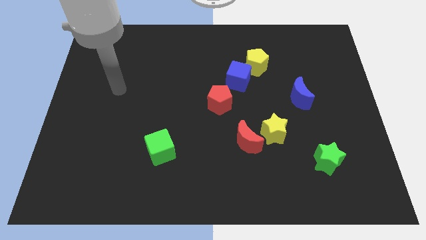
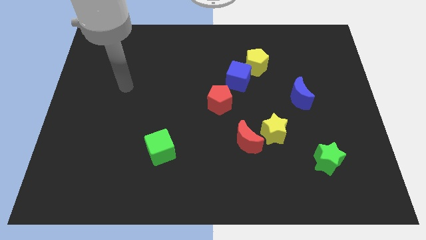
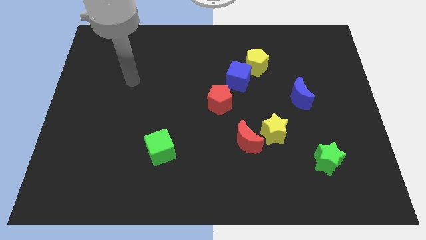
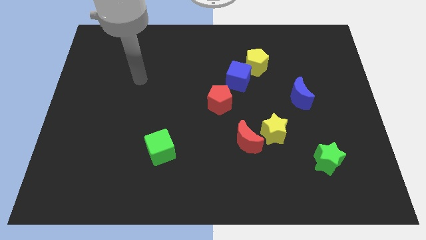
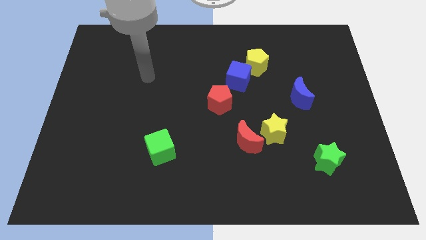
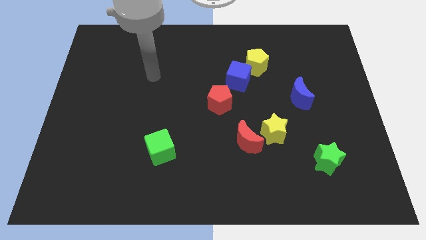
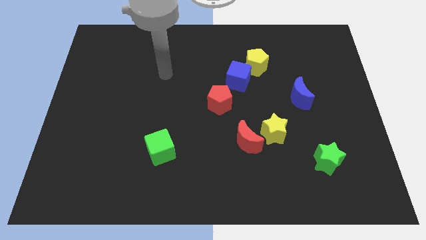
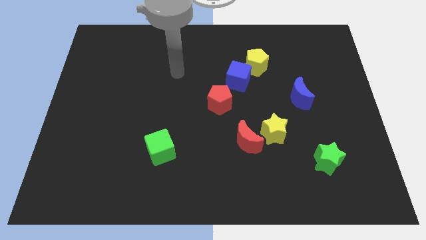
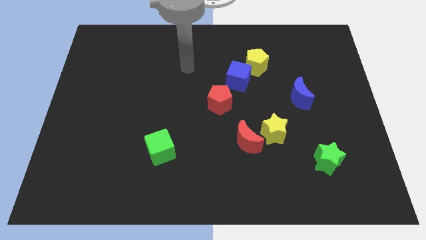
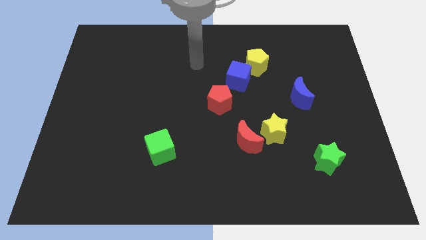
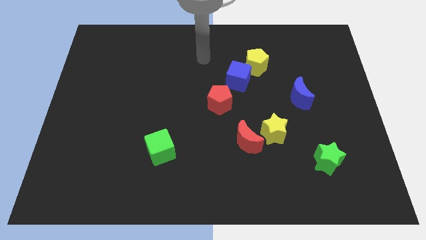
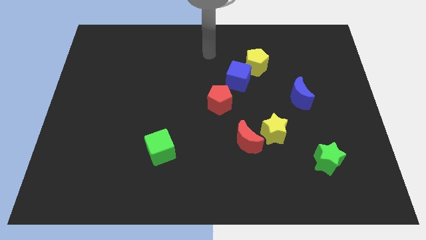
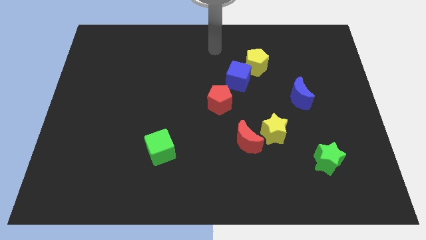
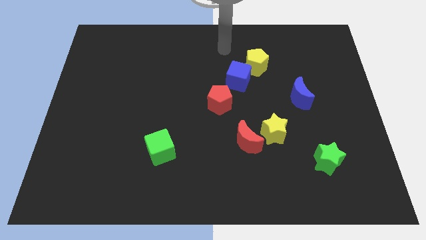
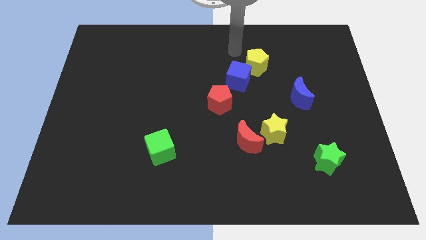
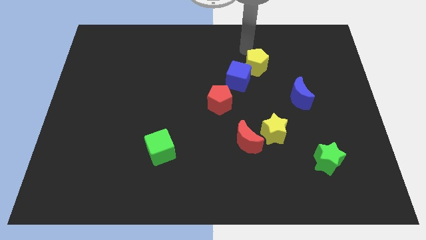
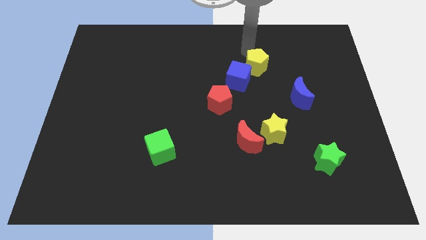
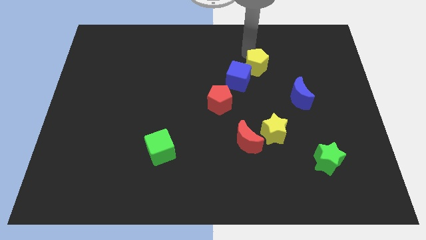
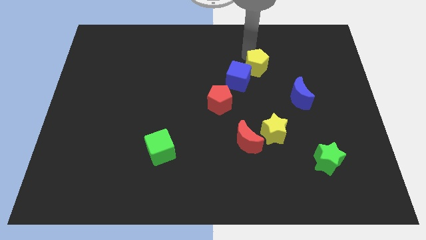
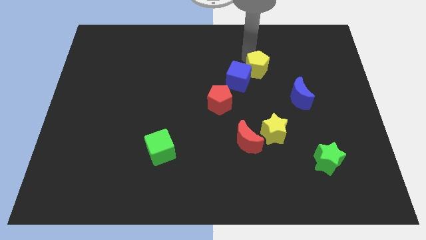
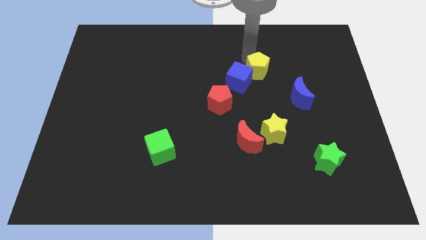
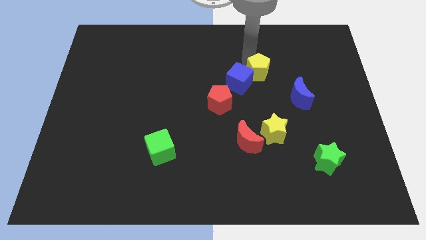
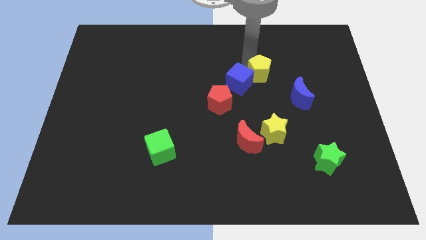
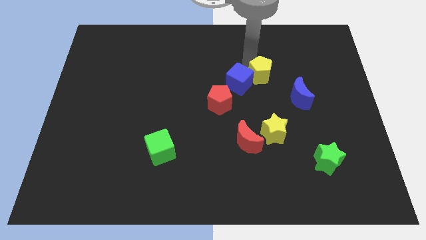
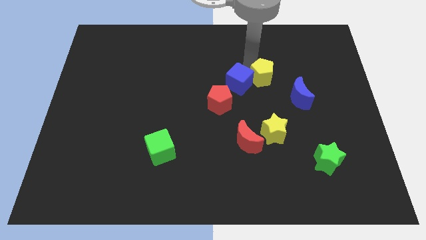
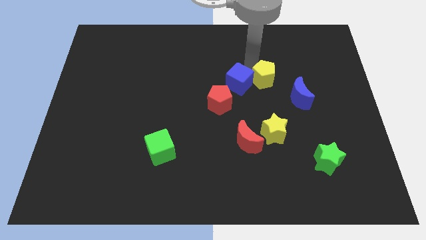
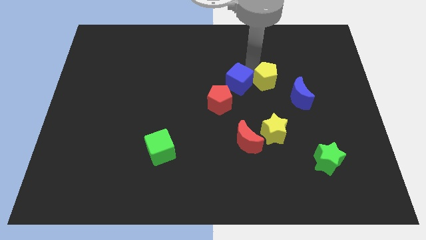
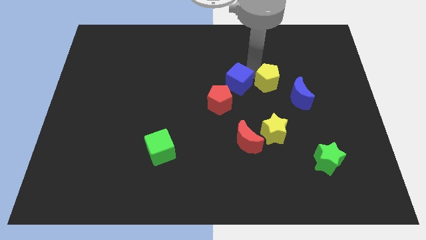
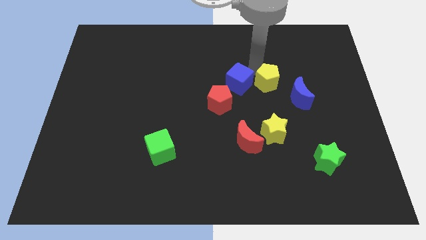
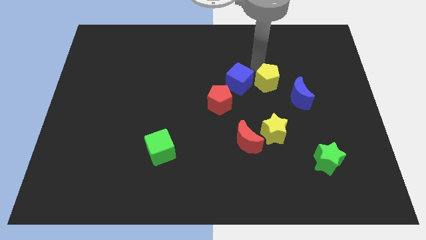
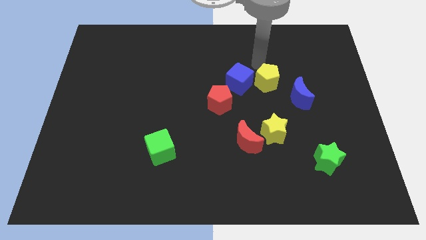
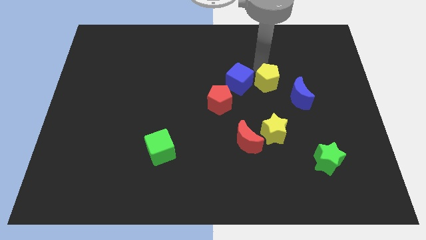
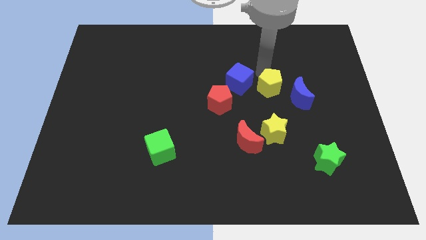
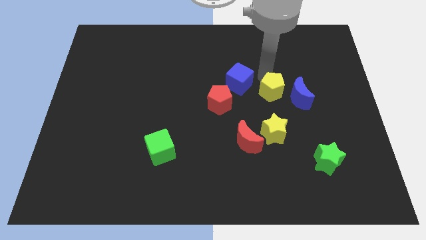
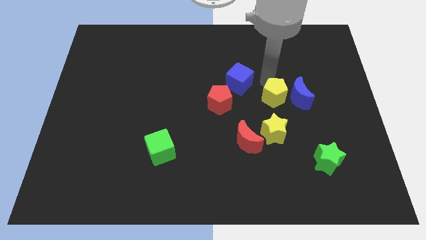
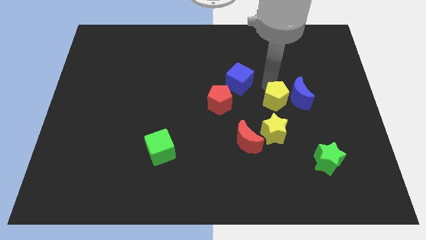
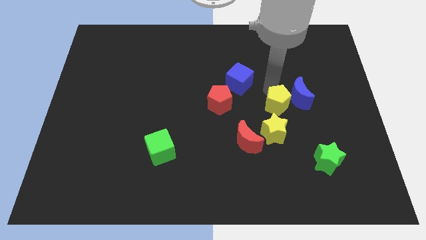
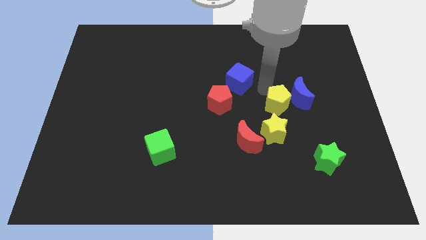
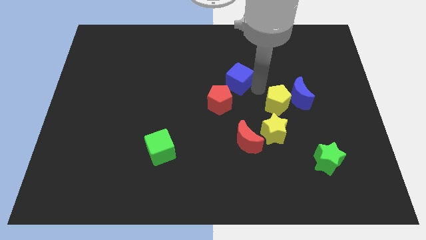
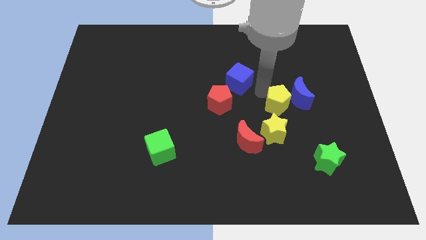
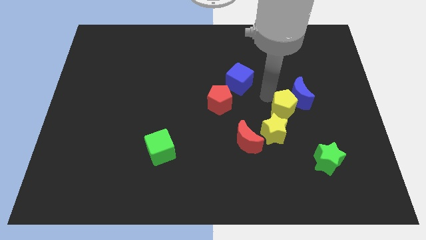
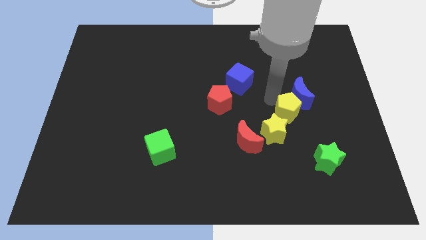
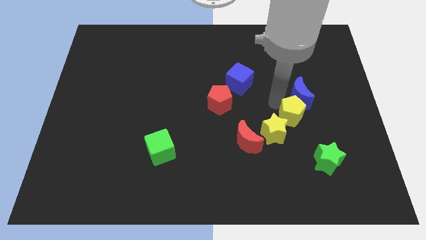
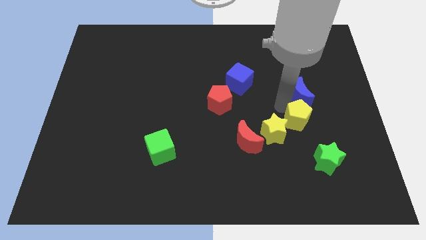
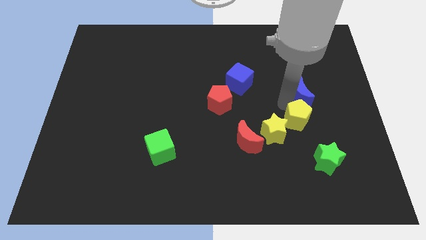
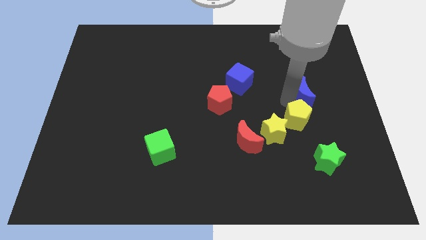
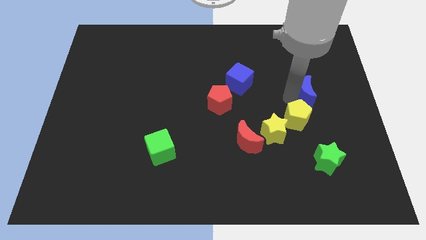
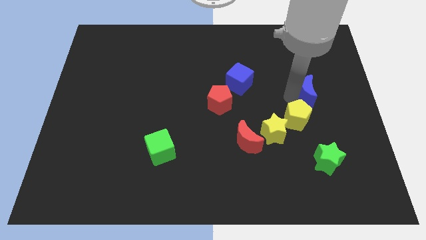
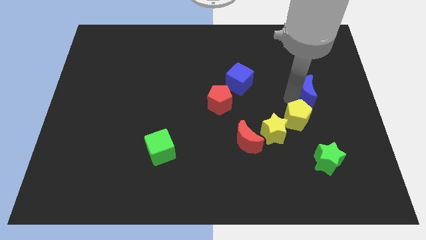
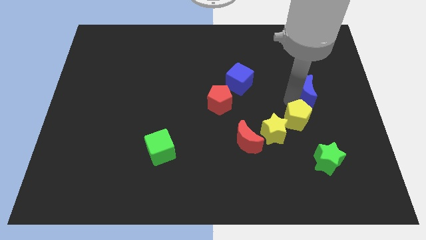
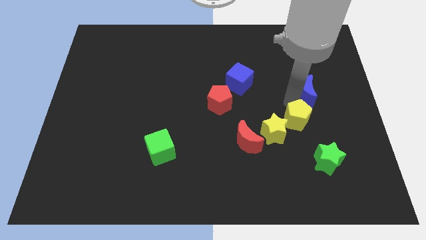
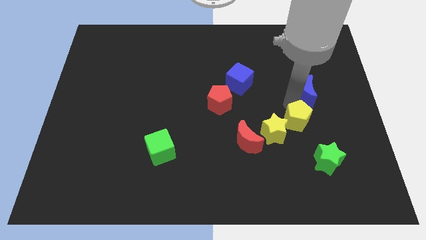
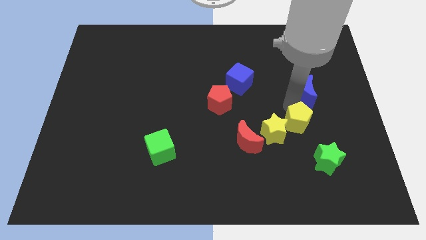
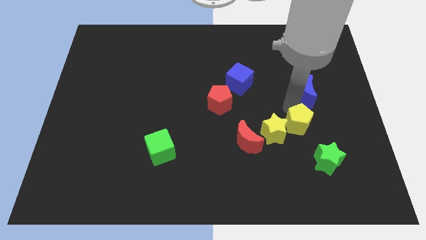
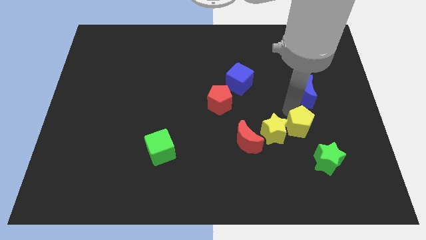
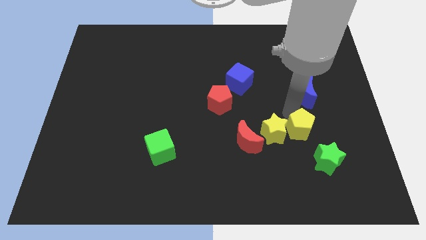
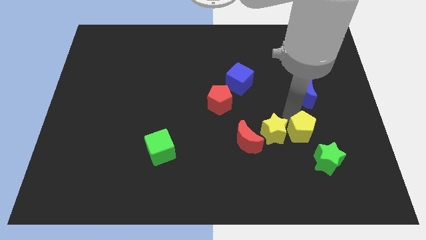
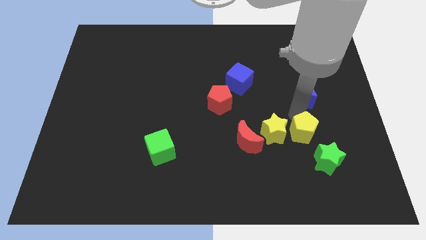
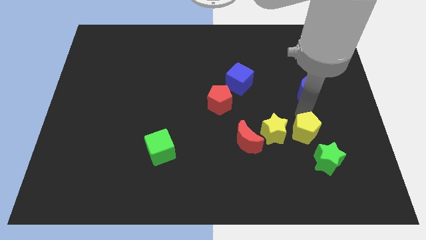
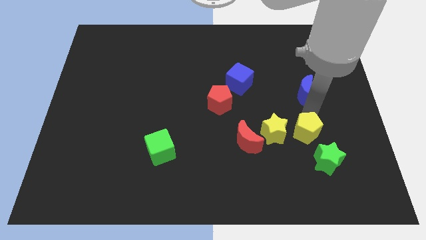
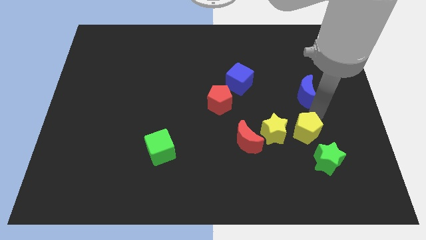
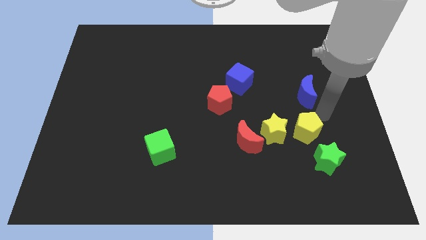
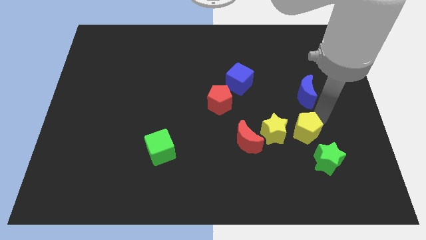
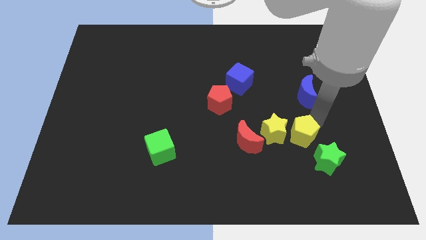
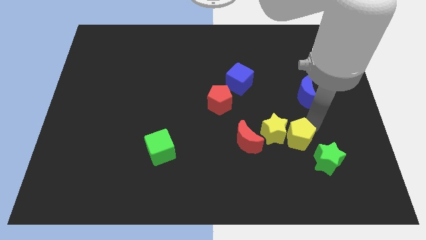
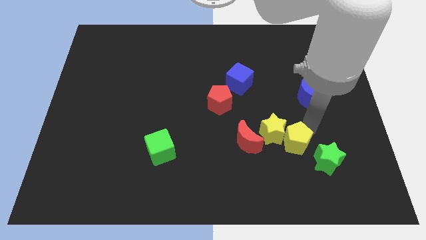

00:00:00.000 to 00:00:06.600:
move the yellow pentagon downwards

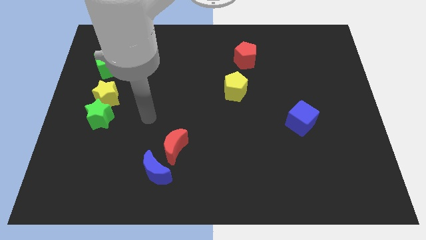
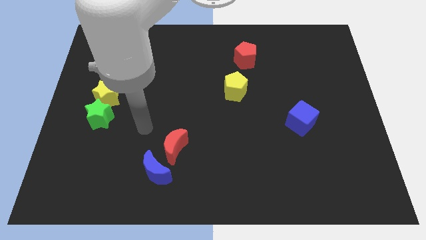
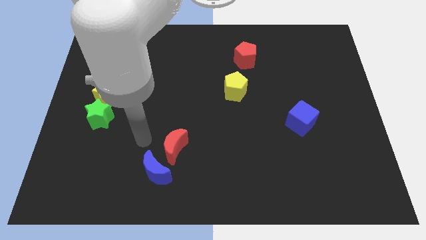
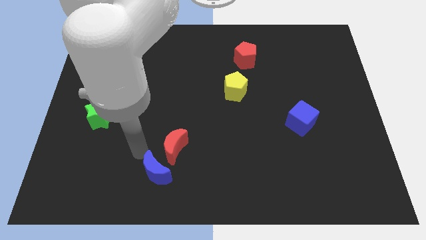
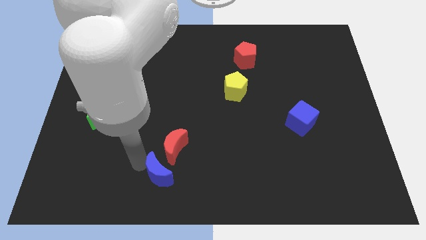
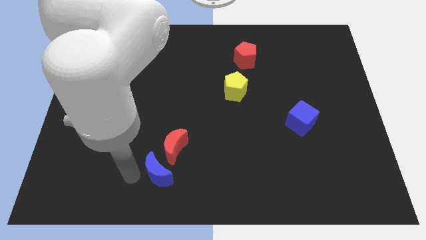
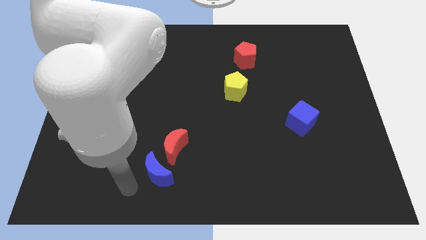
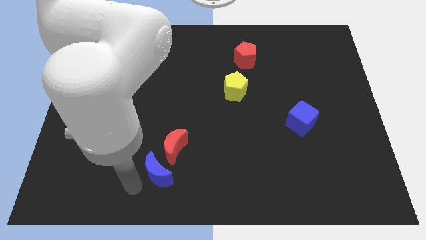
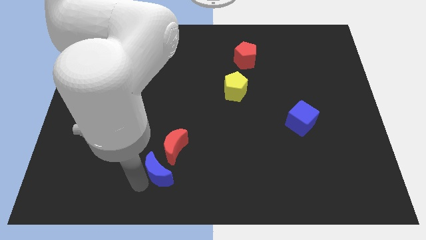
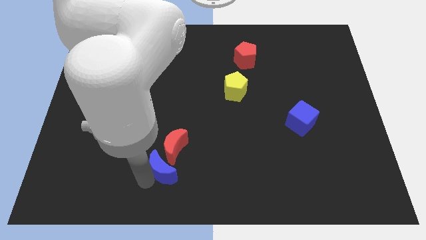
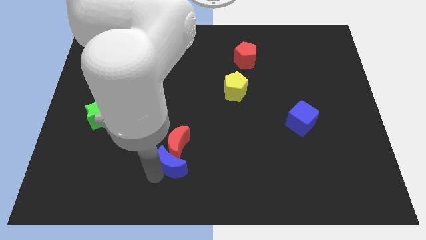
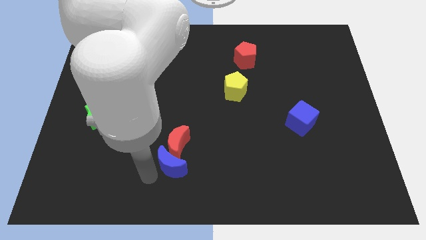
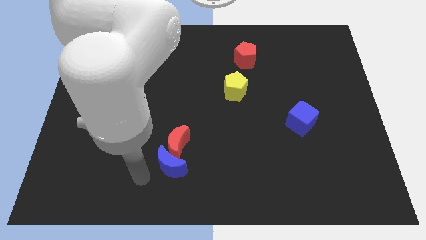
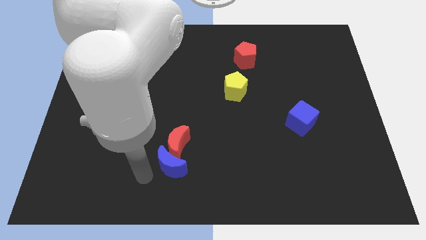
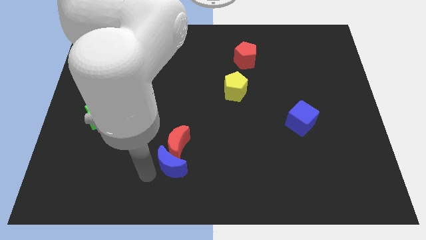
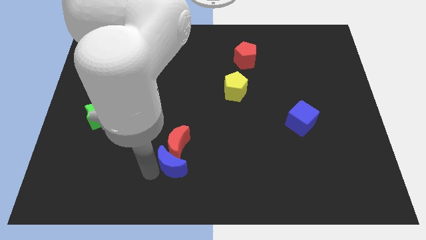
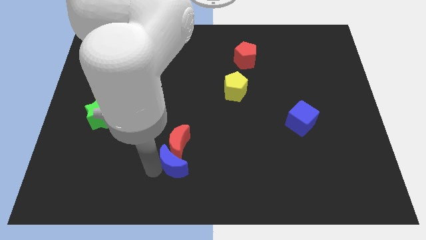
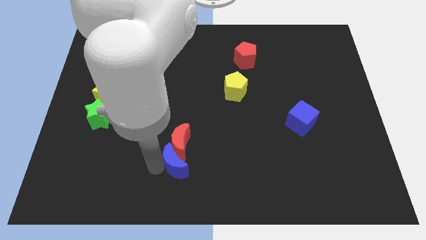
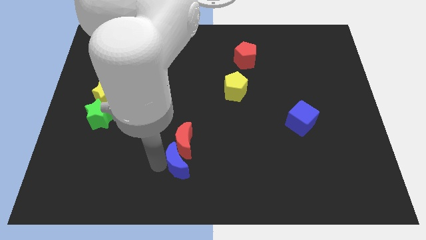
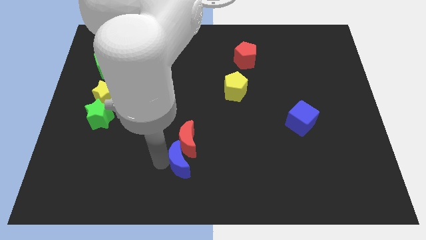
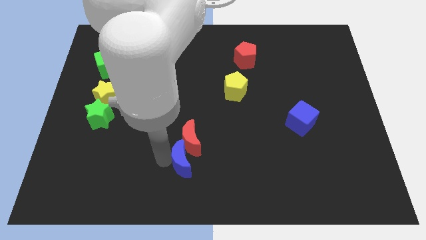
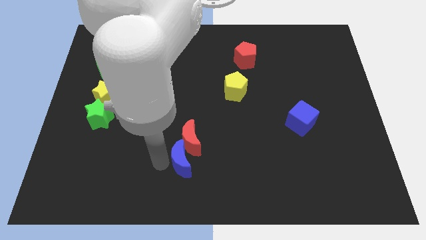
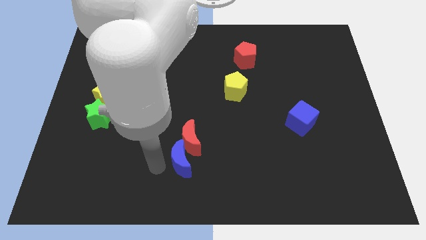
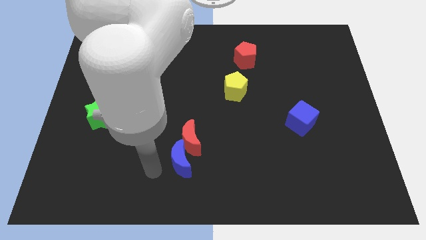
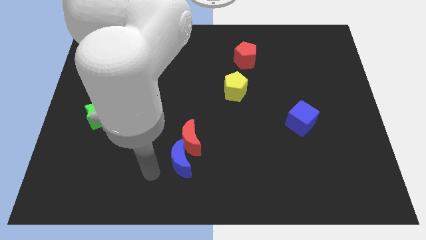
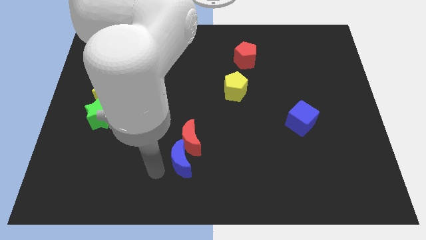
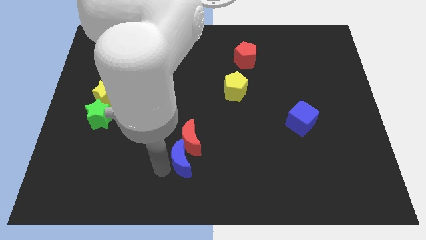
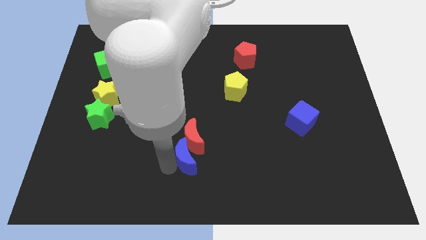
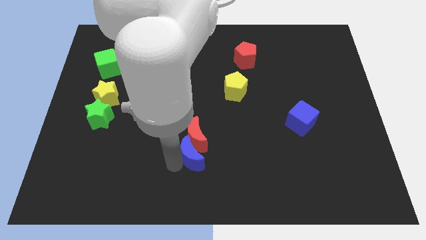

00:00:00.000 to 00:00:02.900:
slightly slide the blue moon diagonally up and to the right
